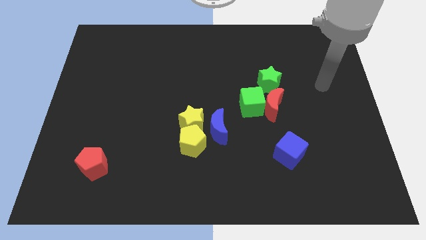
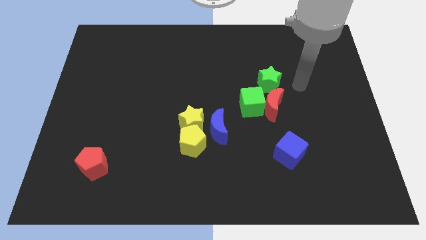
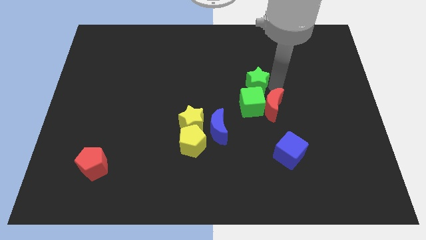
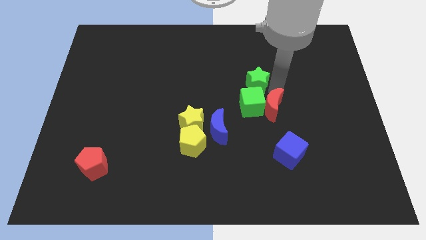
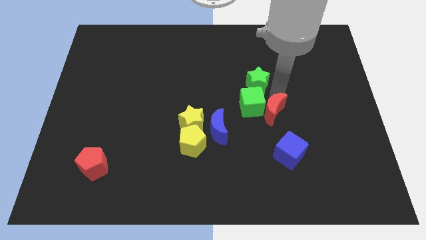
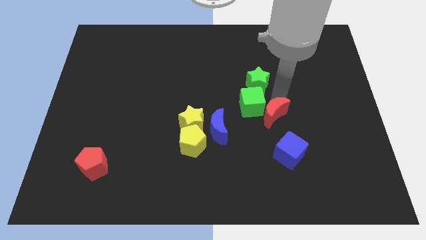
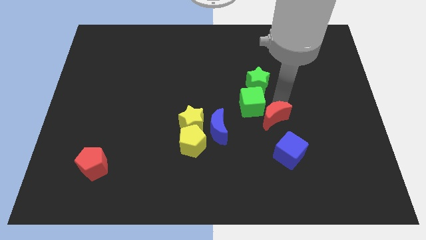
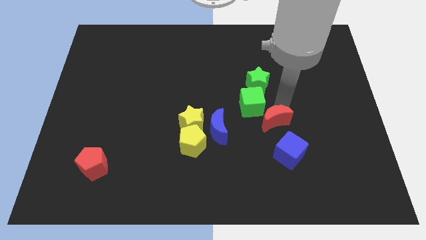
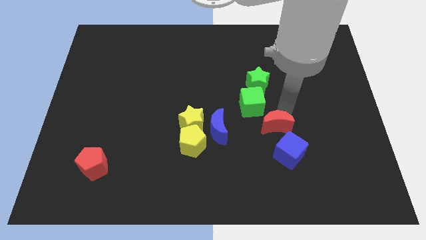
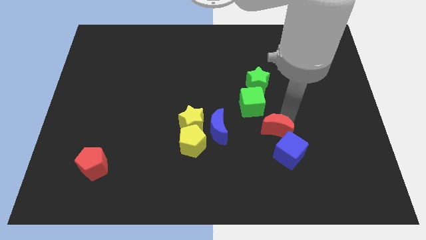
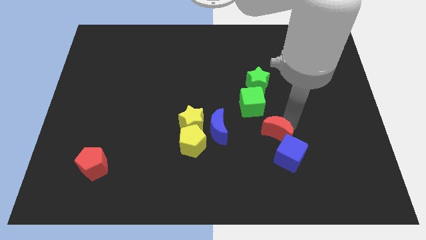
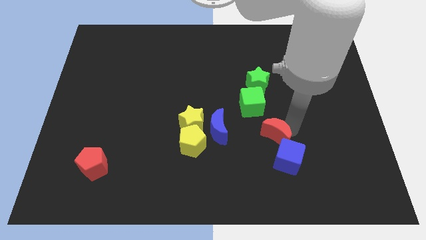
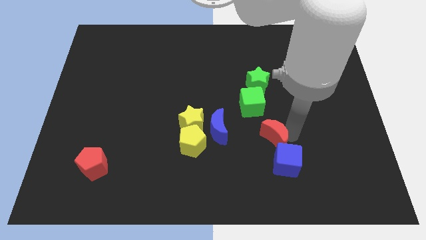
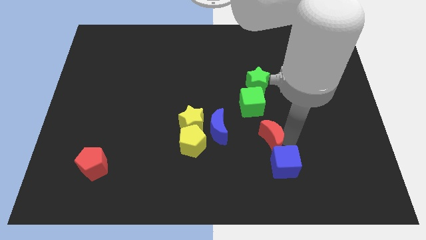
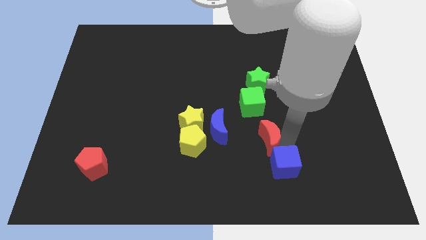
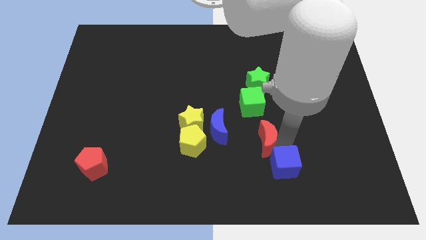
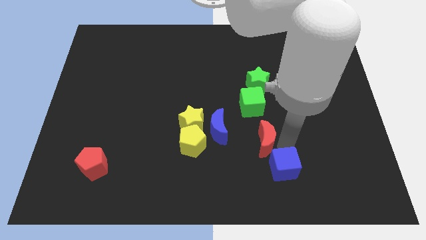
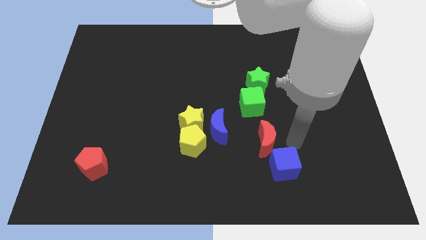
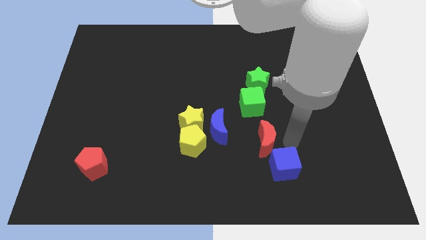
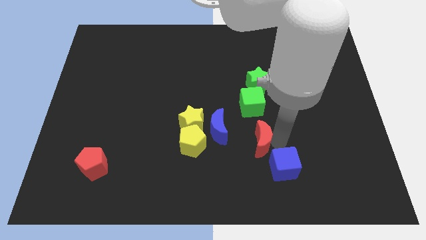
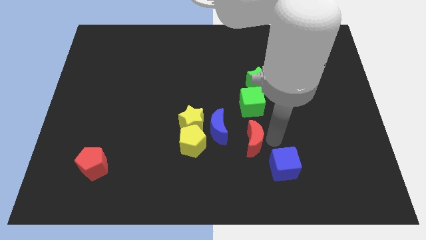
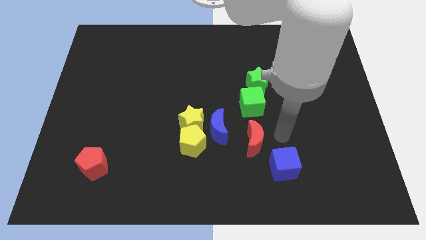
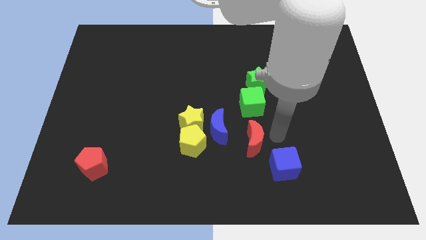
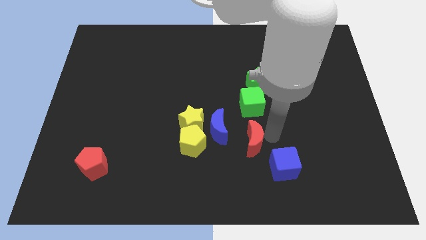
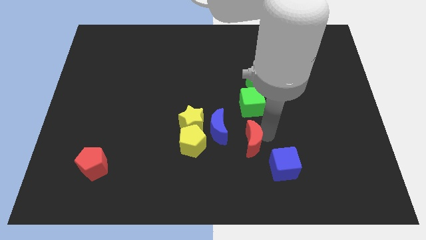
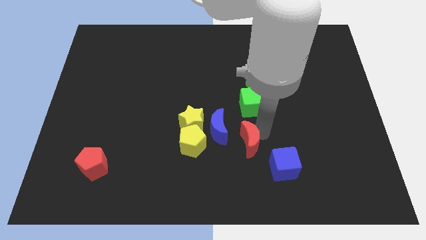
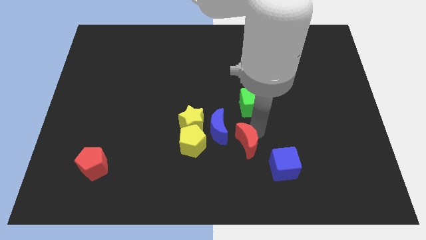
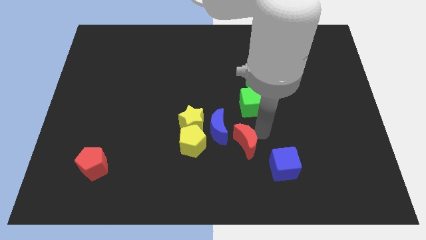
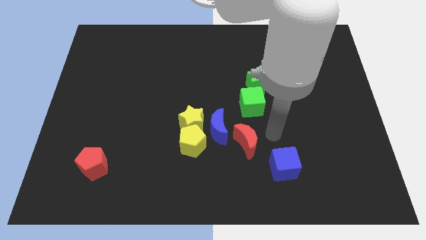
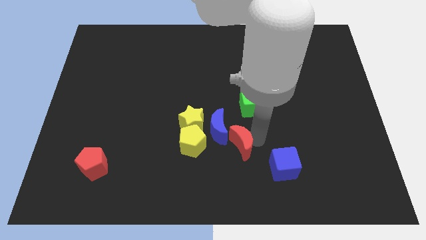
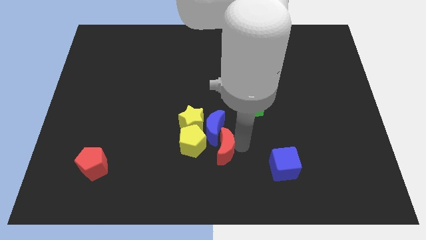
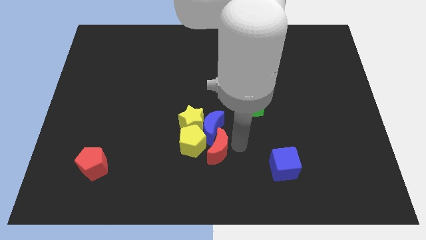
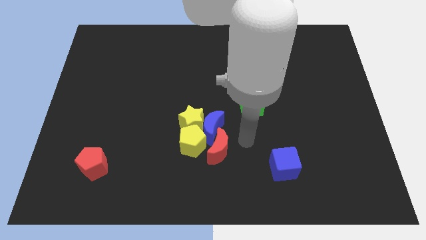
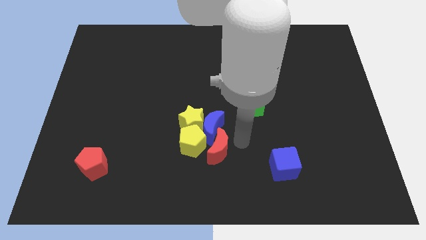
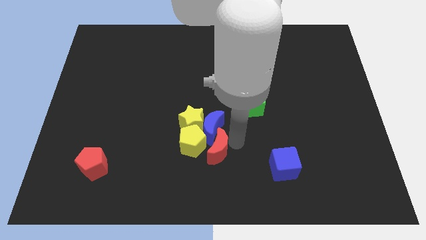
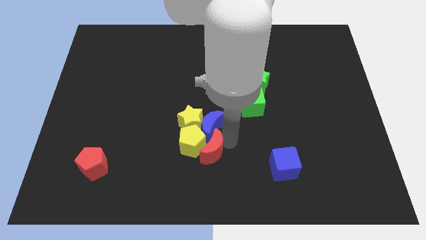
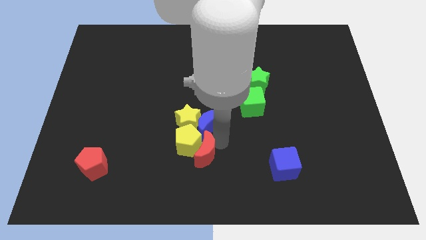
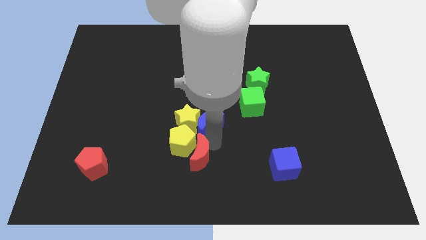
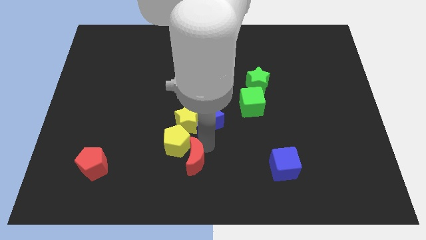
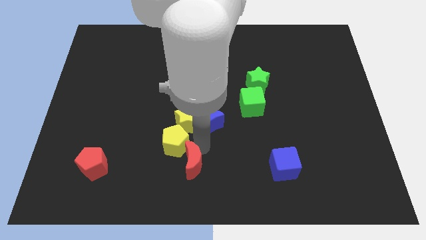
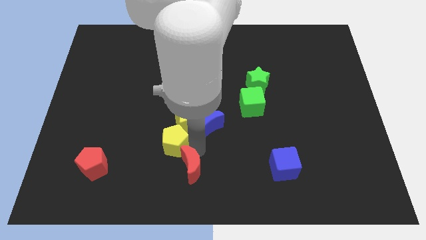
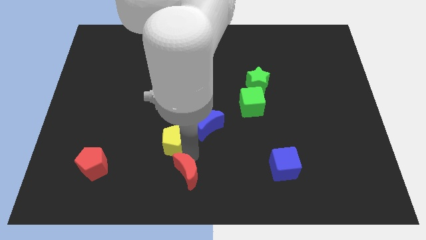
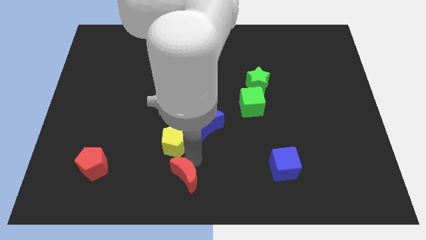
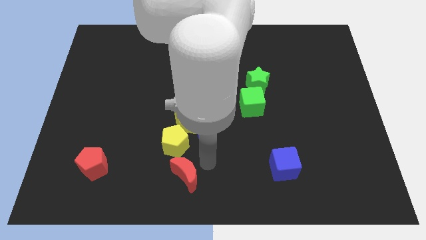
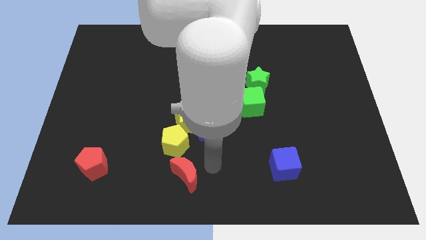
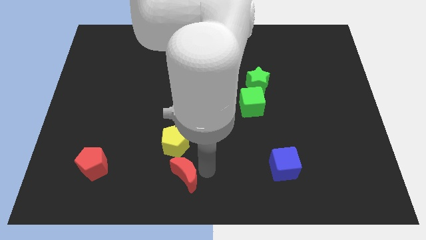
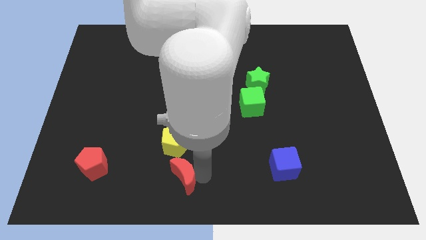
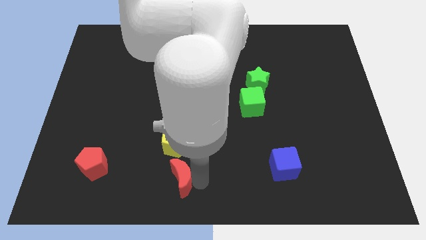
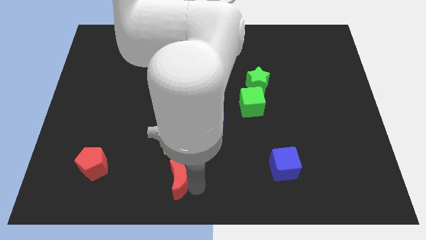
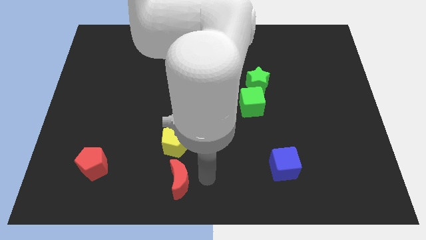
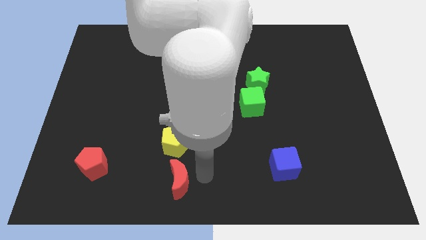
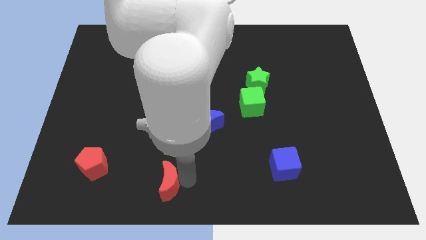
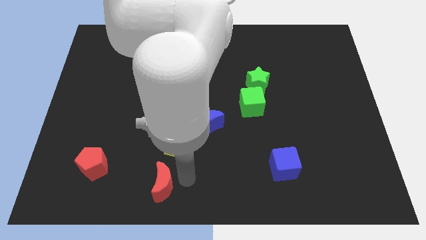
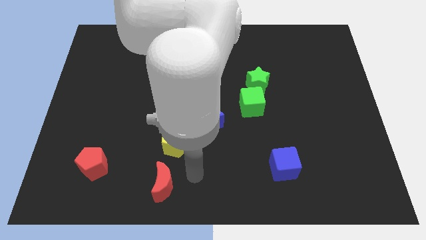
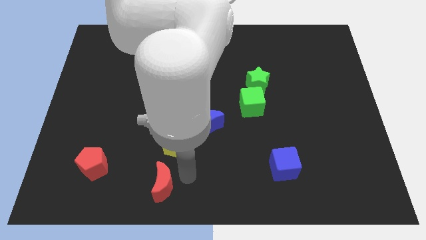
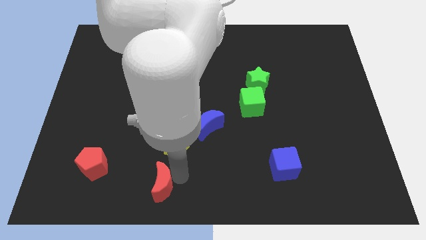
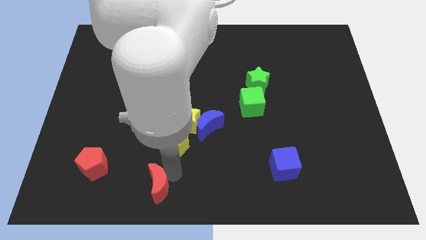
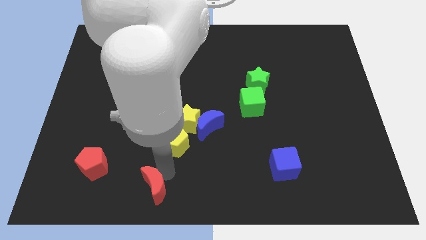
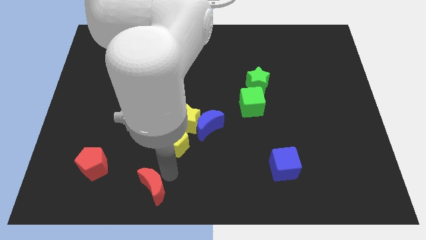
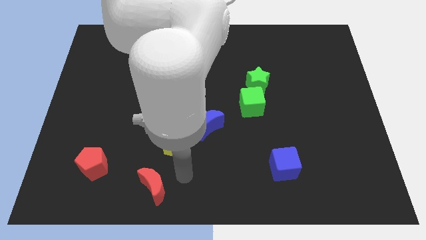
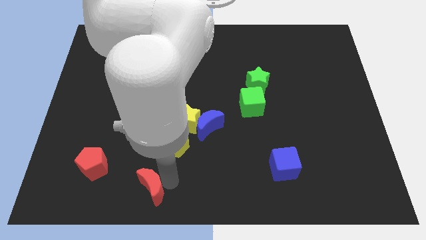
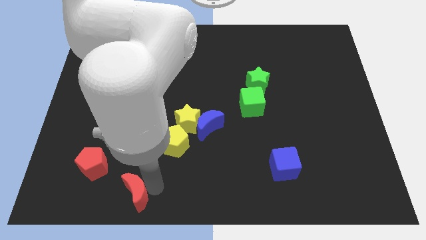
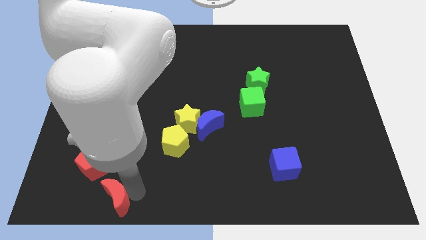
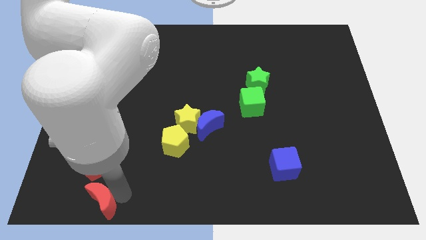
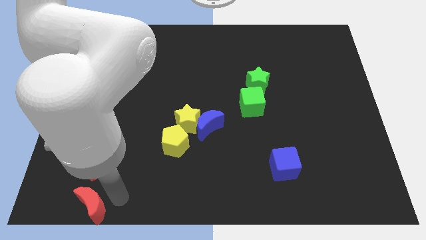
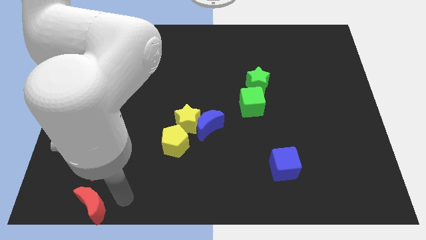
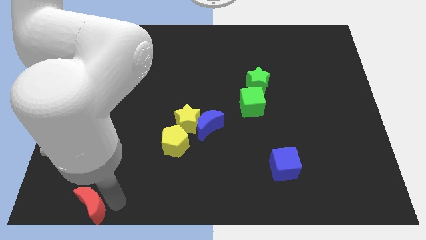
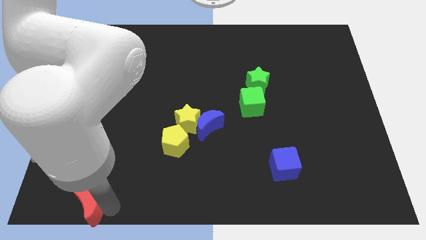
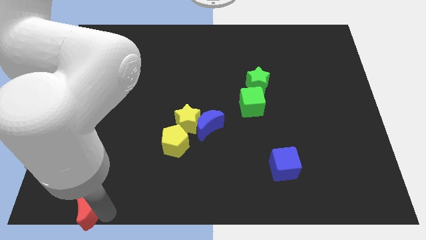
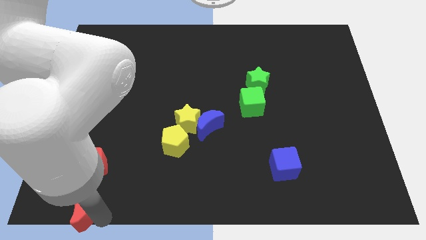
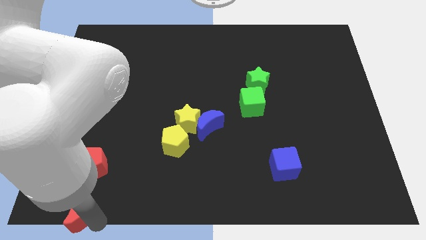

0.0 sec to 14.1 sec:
put the red moon to the bottom left
